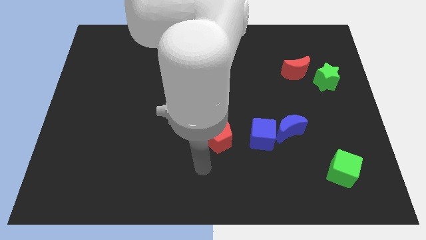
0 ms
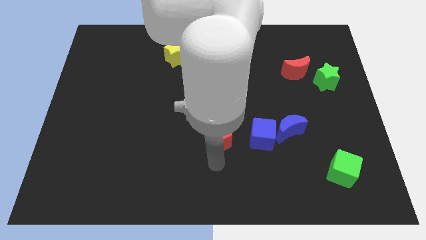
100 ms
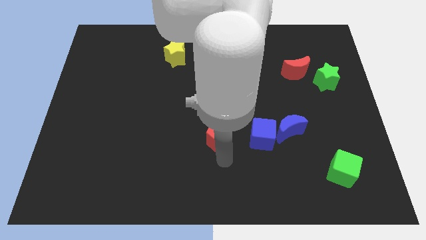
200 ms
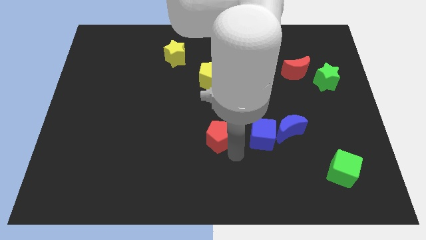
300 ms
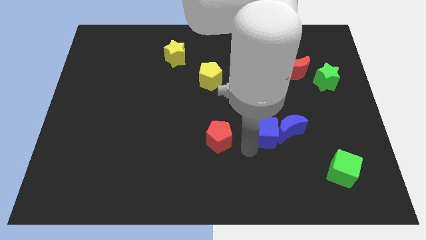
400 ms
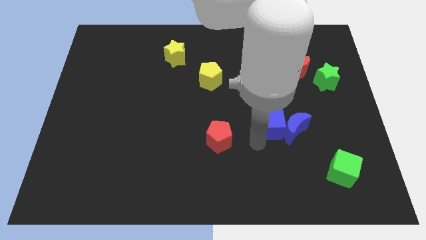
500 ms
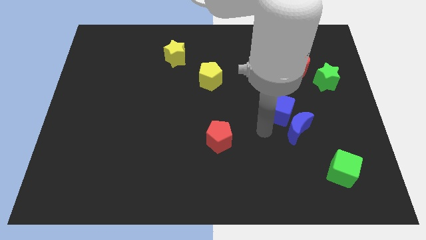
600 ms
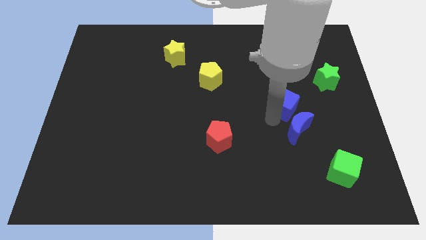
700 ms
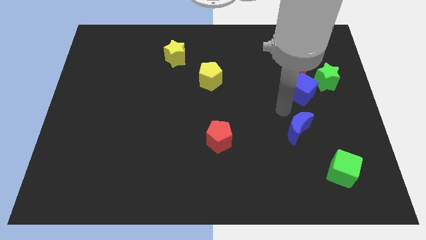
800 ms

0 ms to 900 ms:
pull the blue moon apart from the blue cube

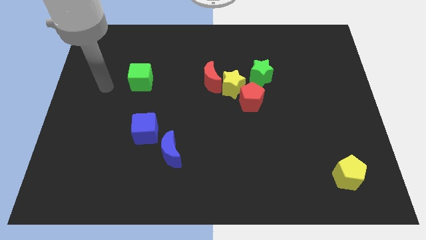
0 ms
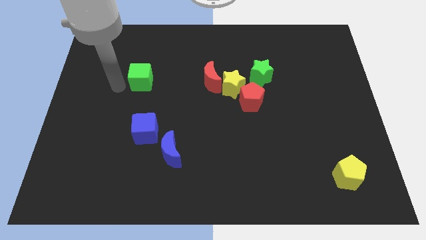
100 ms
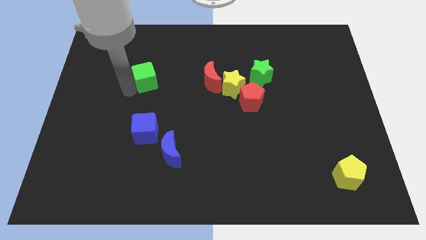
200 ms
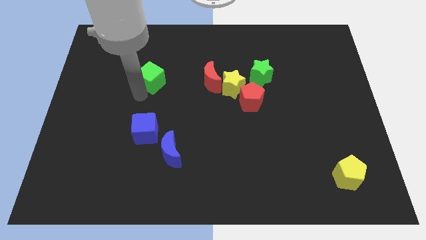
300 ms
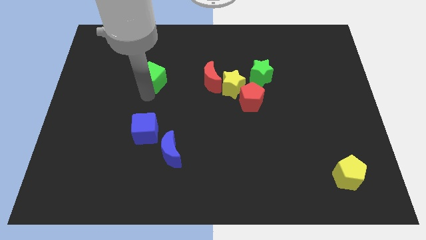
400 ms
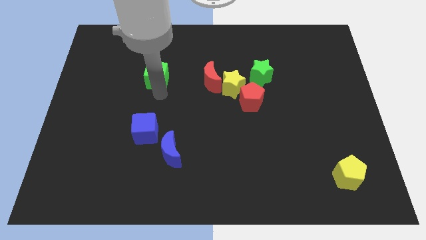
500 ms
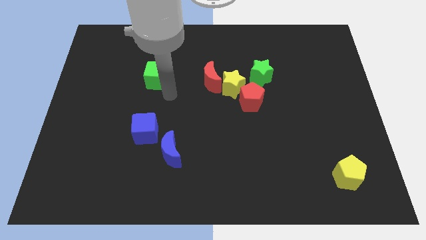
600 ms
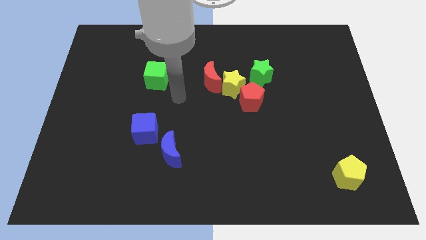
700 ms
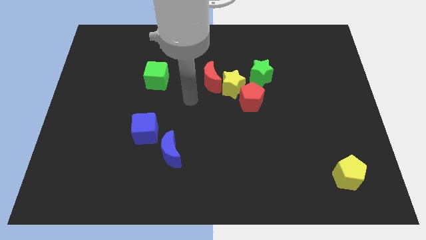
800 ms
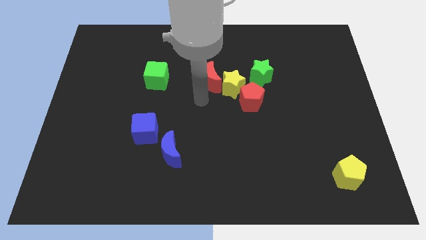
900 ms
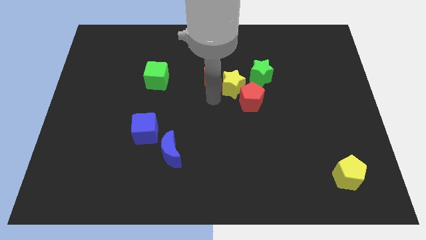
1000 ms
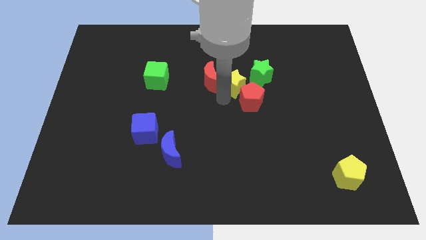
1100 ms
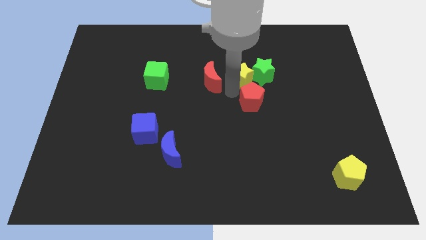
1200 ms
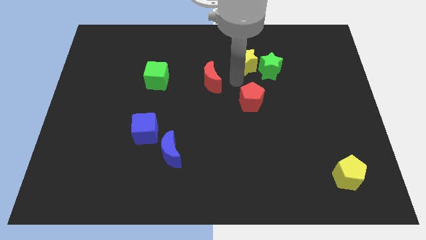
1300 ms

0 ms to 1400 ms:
pull the red moon apart from the yellow star

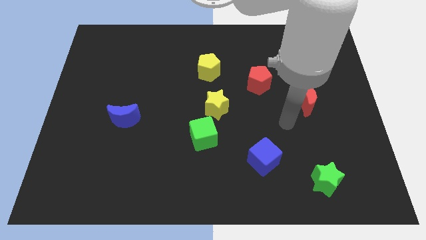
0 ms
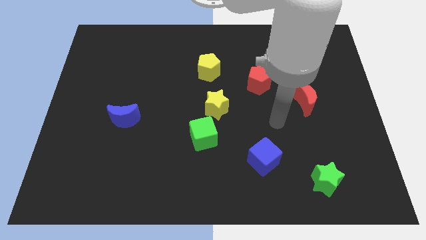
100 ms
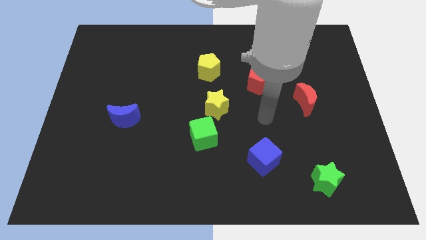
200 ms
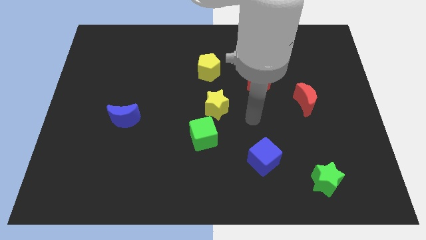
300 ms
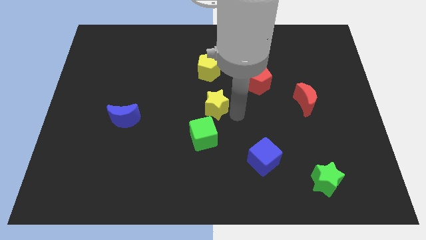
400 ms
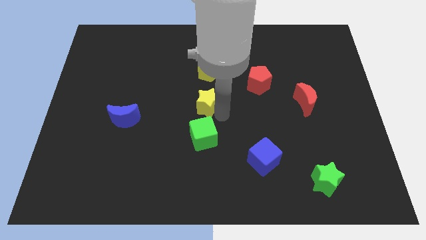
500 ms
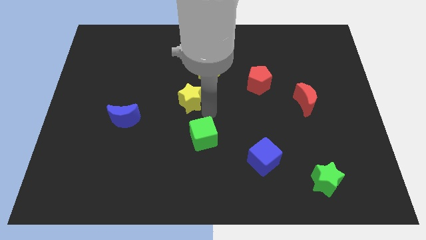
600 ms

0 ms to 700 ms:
move the green cube away from the yellow star

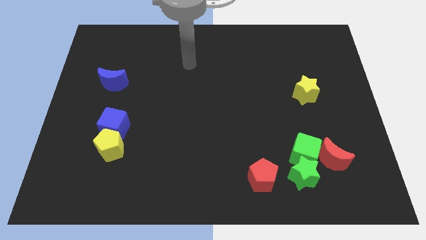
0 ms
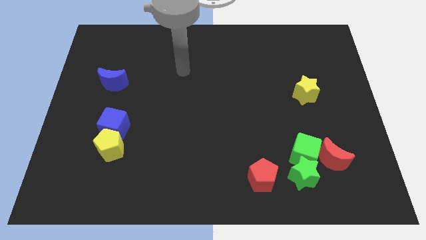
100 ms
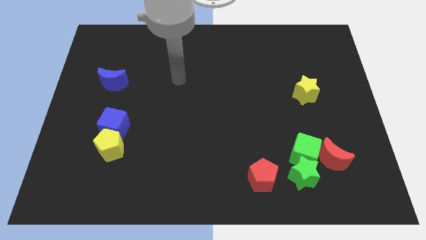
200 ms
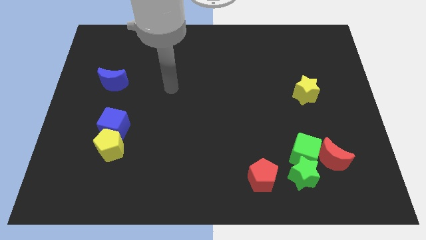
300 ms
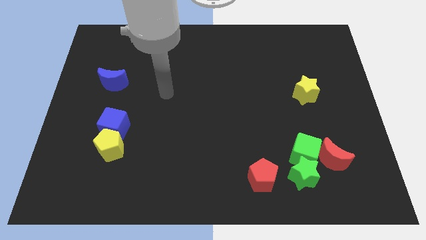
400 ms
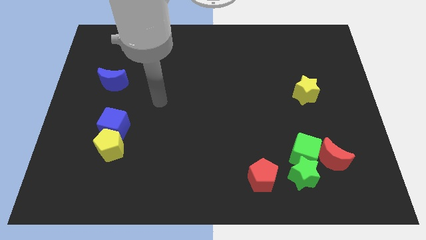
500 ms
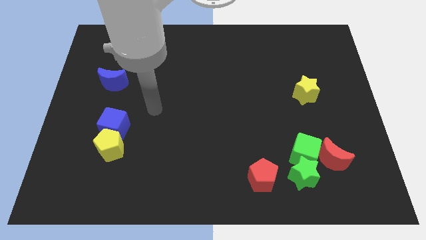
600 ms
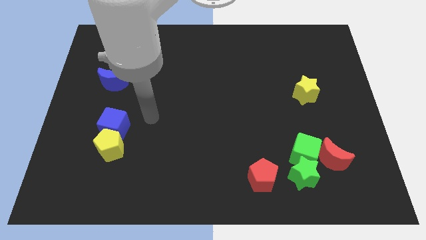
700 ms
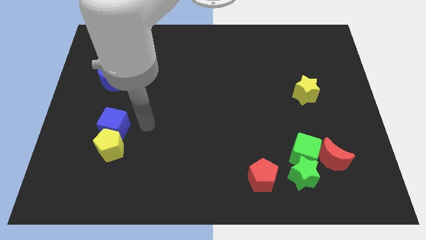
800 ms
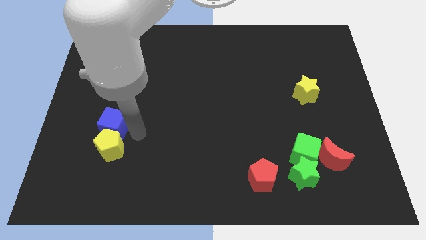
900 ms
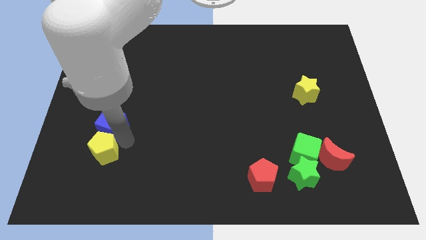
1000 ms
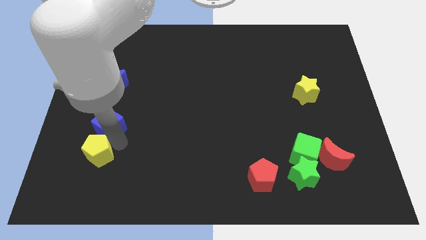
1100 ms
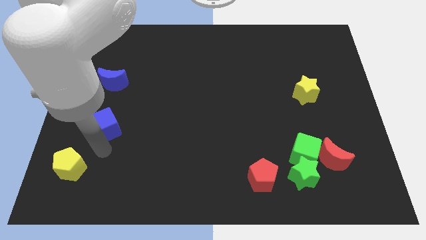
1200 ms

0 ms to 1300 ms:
pull the blue cube apart from the yellow pentagon

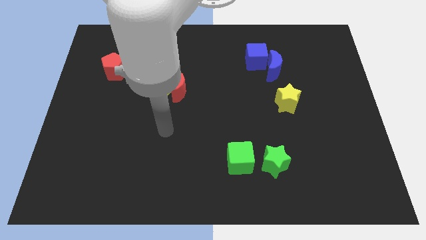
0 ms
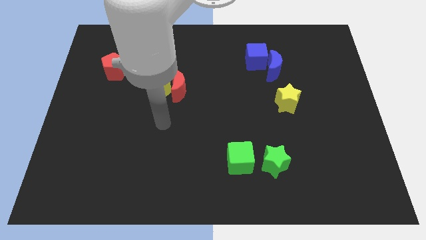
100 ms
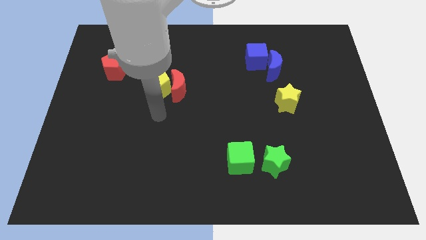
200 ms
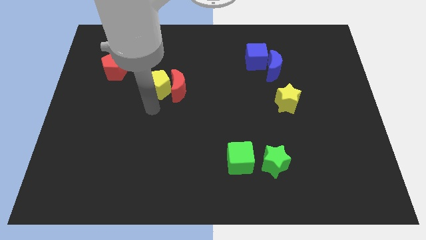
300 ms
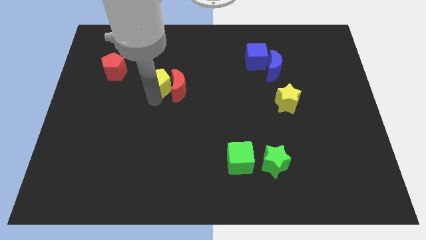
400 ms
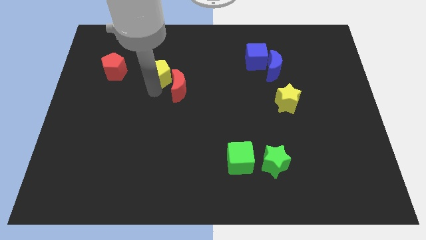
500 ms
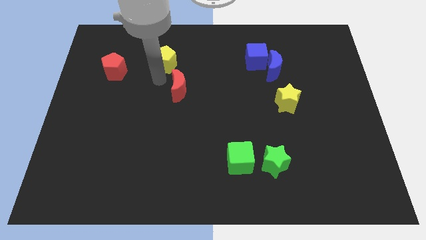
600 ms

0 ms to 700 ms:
move the red moon away from the yellow pentagon

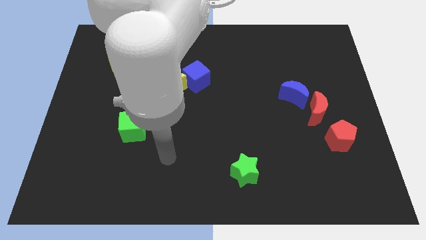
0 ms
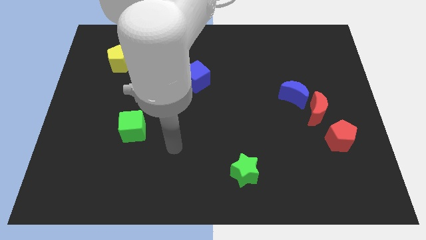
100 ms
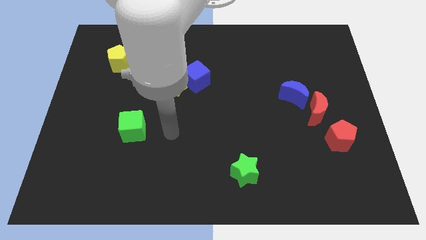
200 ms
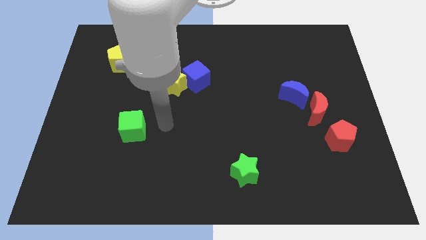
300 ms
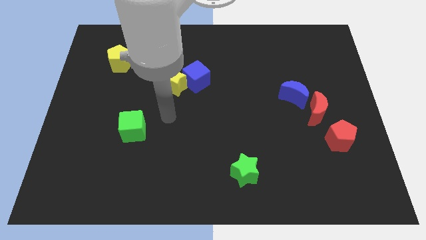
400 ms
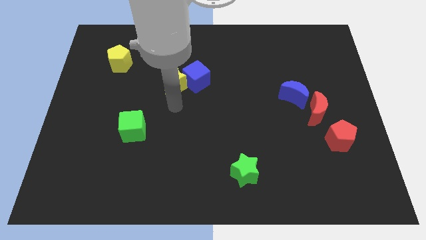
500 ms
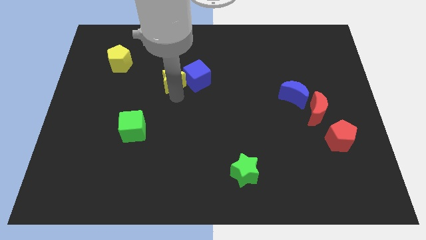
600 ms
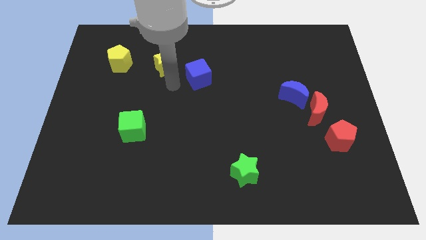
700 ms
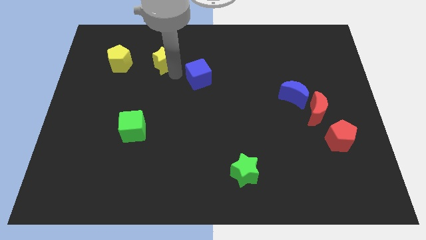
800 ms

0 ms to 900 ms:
separate the blue cube from the yellow star

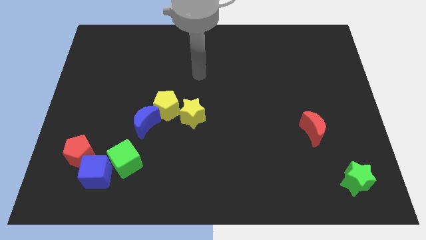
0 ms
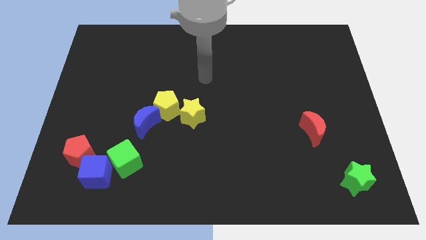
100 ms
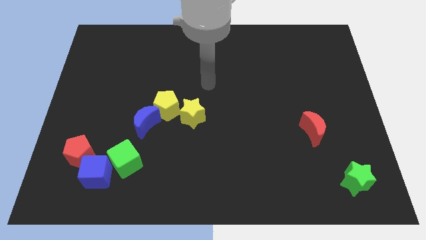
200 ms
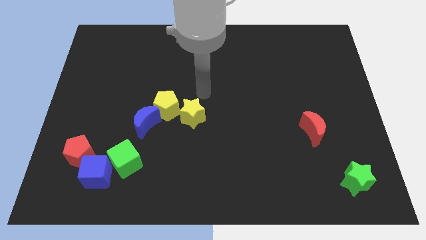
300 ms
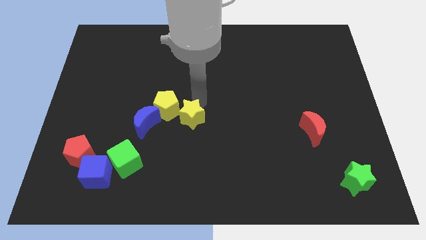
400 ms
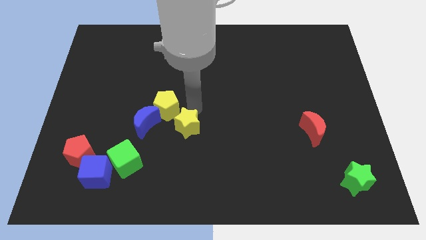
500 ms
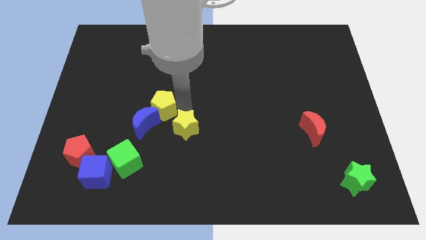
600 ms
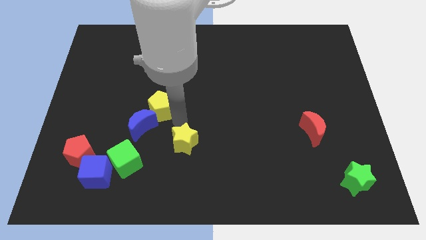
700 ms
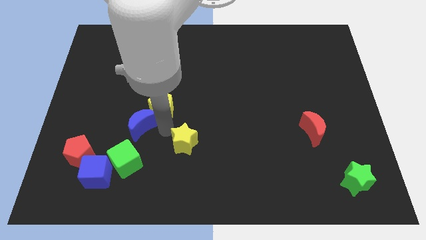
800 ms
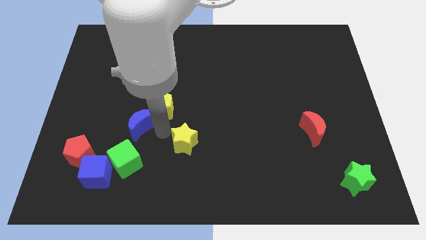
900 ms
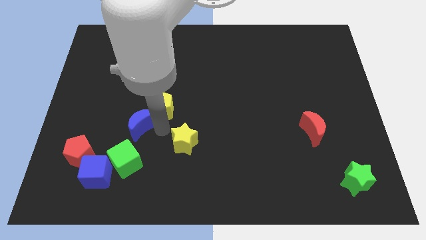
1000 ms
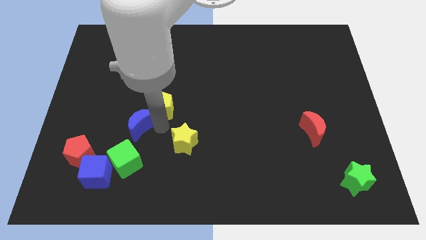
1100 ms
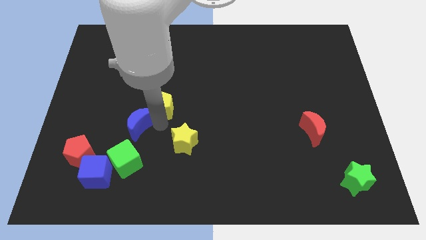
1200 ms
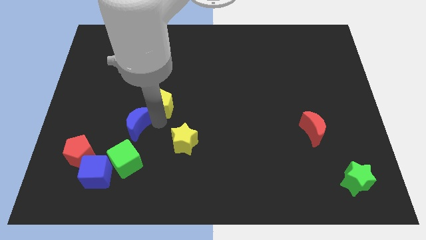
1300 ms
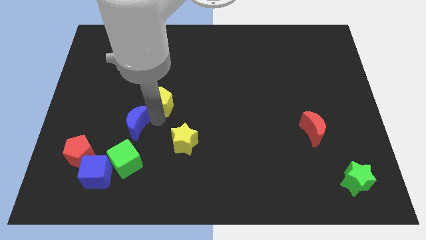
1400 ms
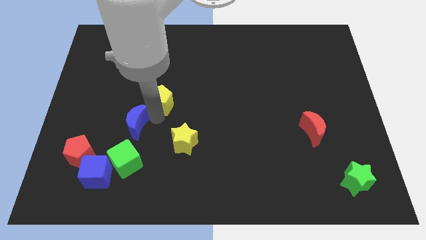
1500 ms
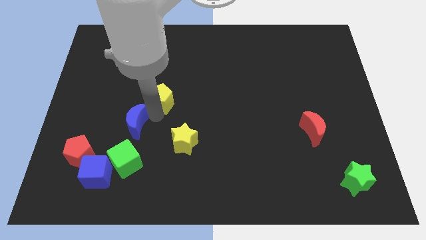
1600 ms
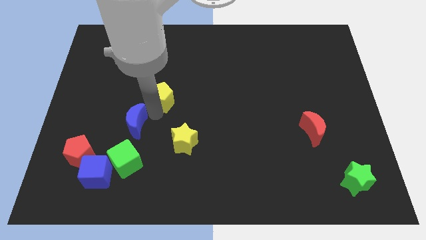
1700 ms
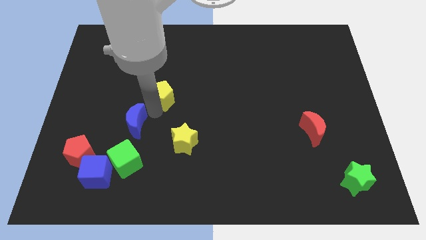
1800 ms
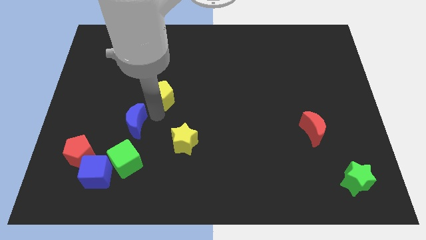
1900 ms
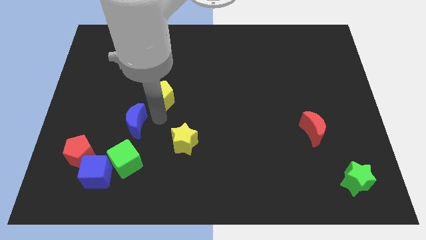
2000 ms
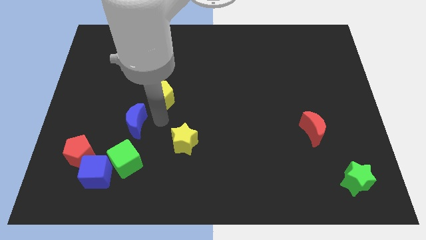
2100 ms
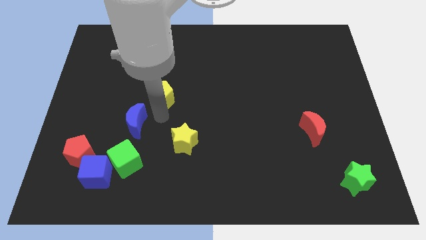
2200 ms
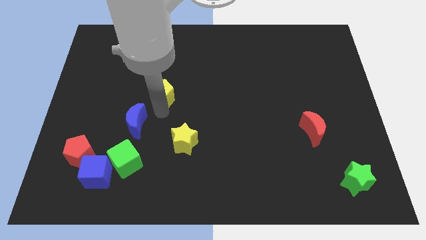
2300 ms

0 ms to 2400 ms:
separate the yellow pentagon from the blue moon and yellow star

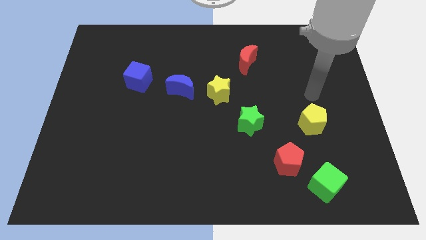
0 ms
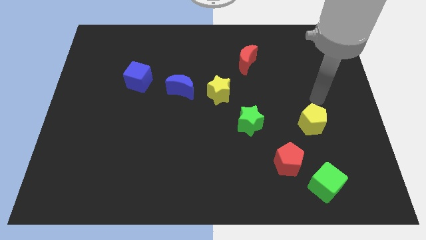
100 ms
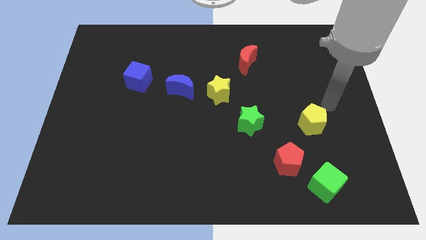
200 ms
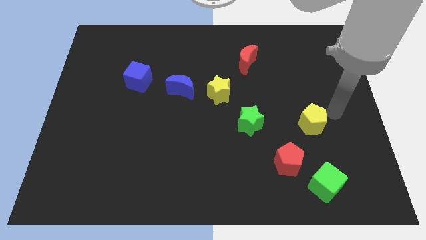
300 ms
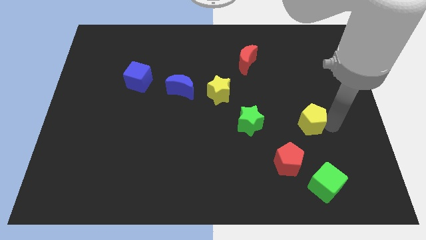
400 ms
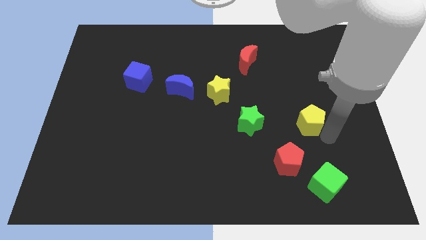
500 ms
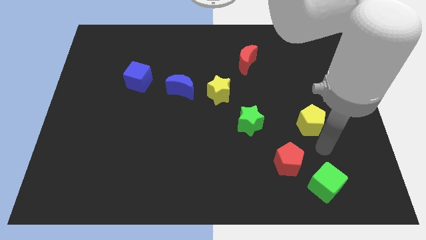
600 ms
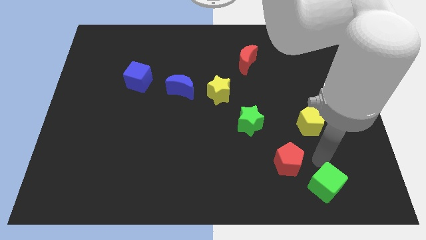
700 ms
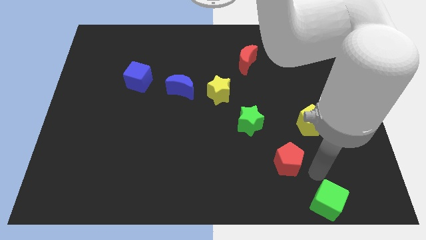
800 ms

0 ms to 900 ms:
move the red pentagon away from the green cube

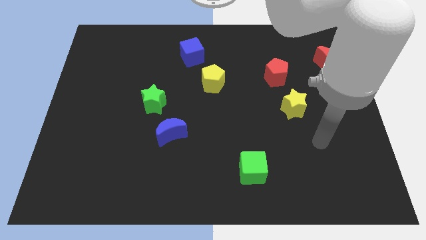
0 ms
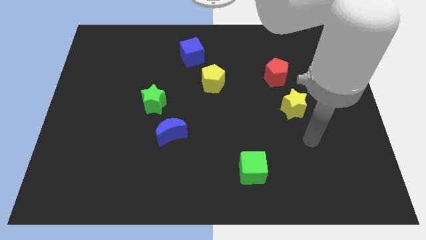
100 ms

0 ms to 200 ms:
move the blue moon away from the green star
